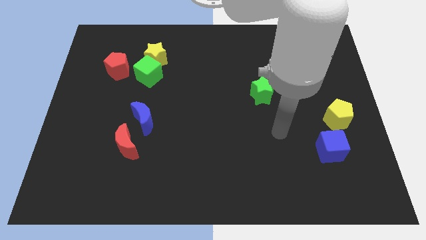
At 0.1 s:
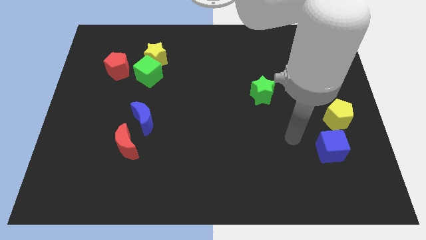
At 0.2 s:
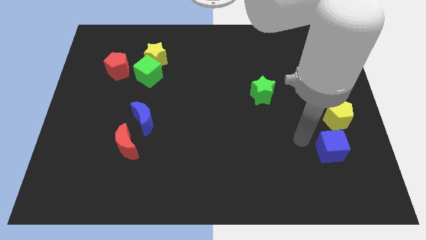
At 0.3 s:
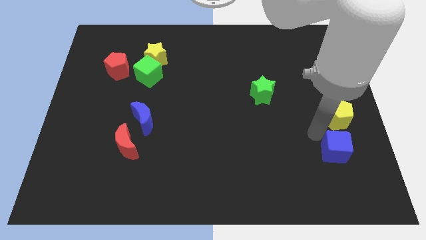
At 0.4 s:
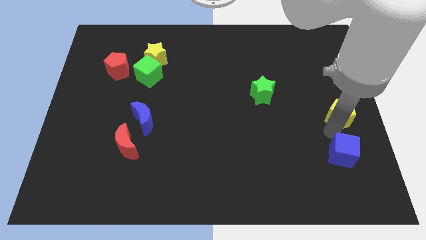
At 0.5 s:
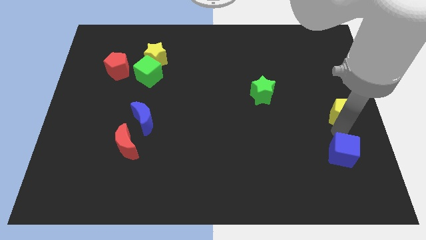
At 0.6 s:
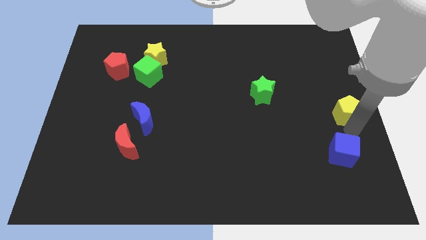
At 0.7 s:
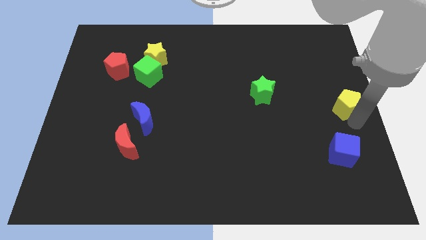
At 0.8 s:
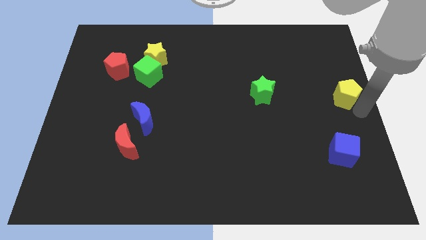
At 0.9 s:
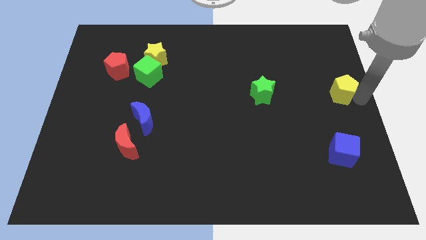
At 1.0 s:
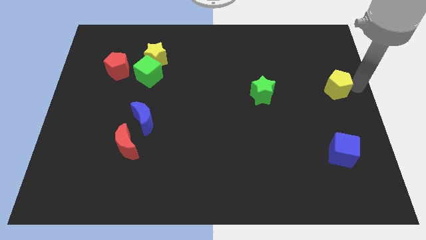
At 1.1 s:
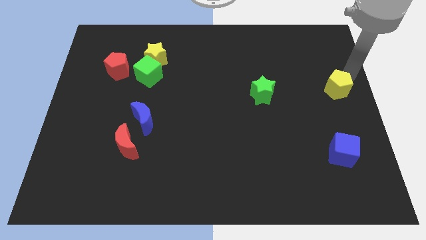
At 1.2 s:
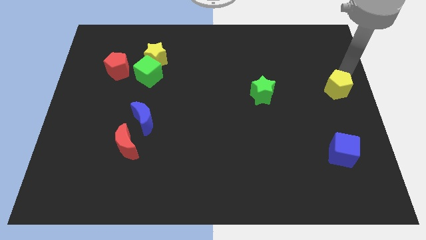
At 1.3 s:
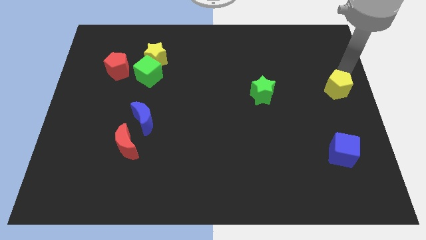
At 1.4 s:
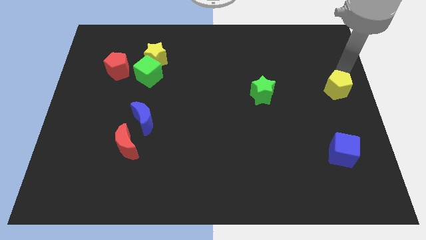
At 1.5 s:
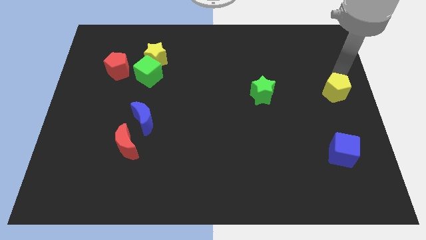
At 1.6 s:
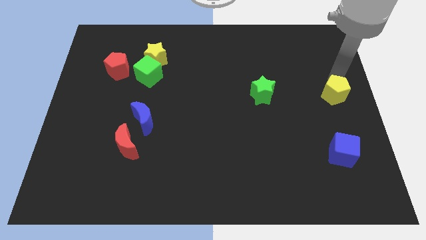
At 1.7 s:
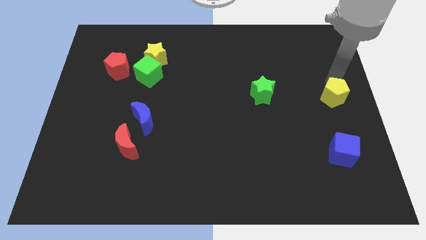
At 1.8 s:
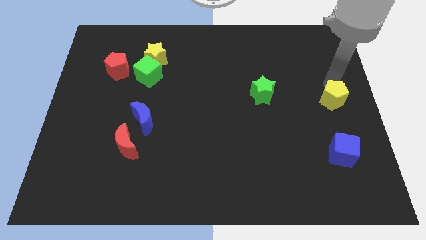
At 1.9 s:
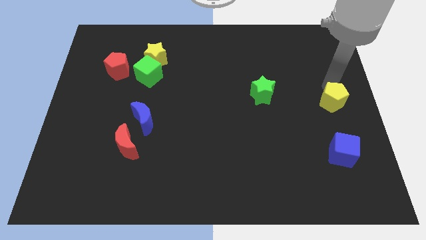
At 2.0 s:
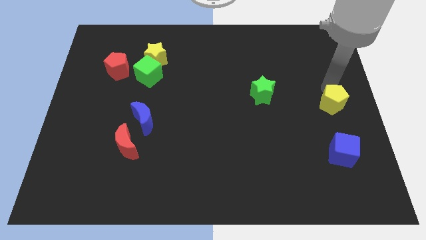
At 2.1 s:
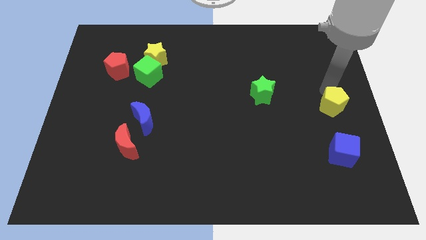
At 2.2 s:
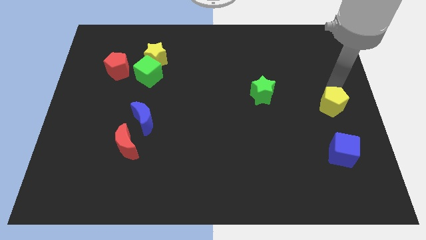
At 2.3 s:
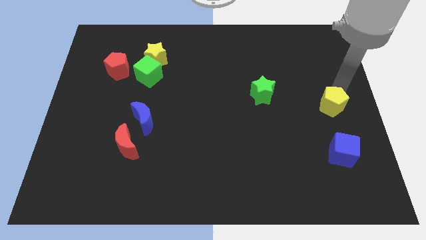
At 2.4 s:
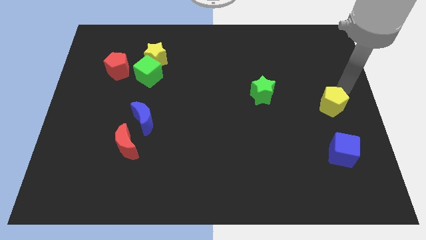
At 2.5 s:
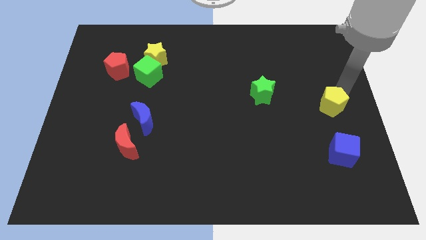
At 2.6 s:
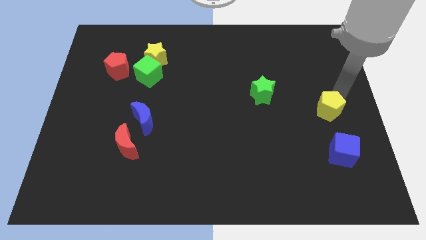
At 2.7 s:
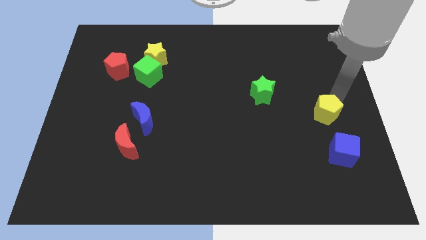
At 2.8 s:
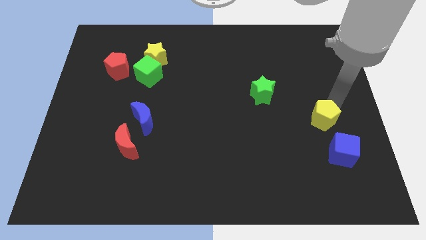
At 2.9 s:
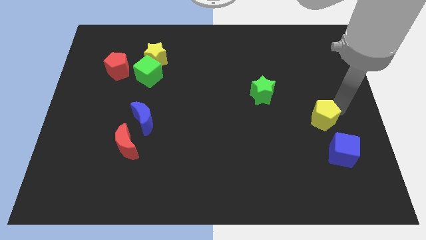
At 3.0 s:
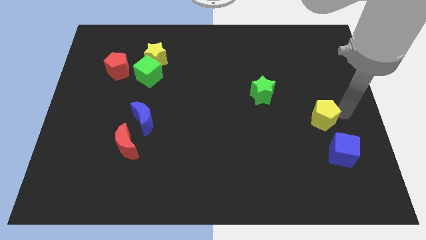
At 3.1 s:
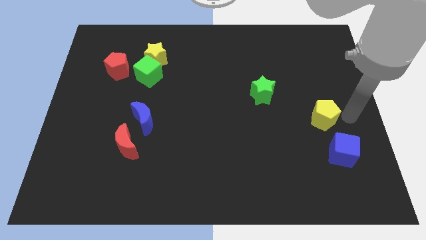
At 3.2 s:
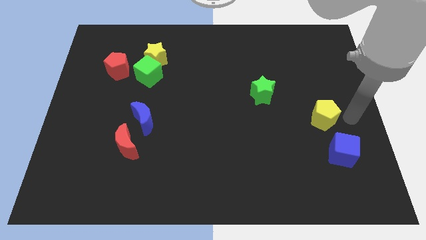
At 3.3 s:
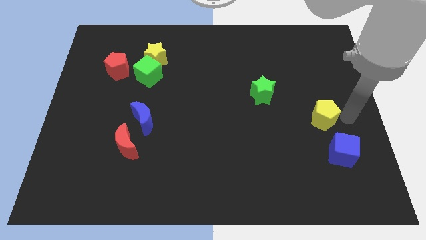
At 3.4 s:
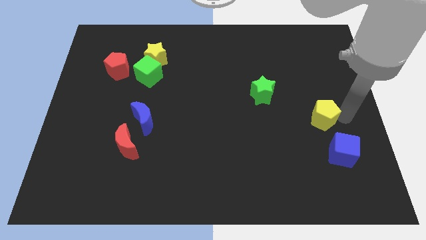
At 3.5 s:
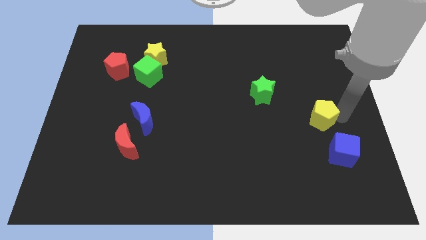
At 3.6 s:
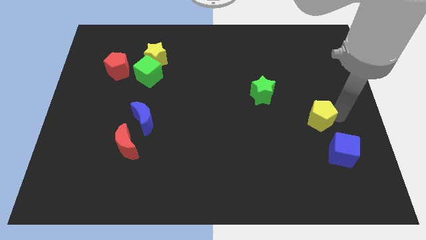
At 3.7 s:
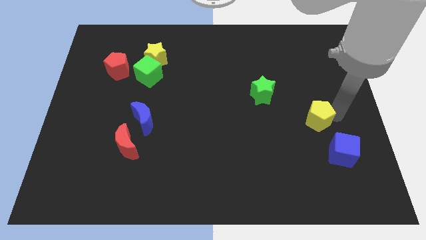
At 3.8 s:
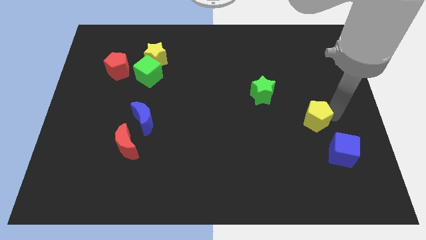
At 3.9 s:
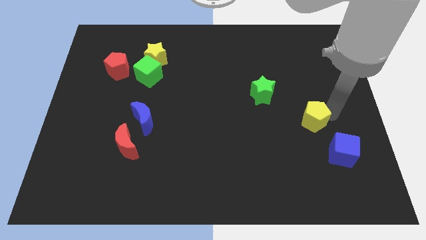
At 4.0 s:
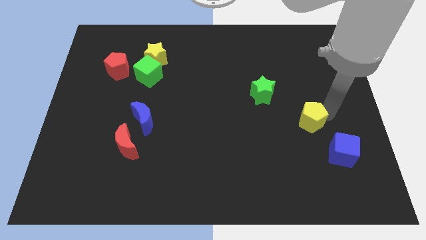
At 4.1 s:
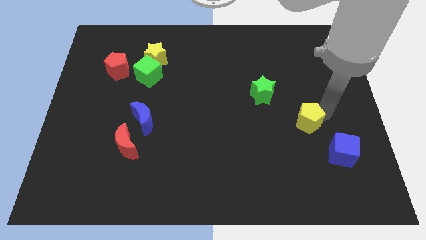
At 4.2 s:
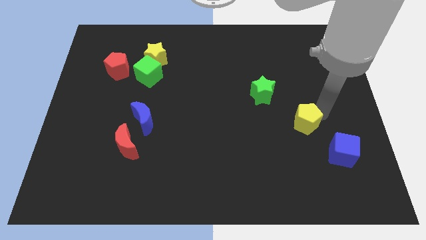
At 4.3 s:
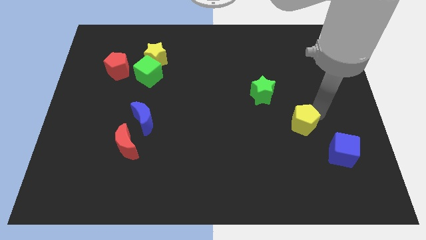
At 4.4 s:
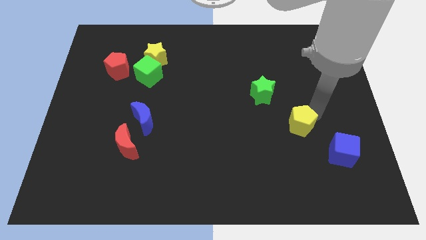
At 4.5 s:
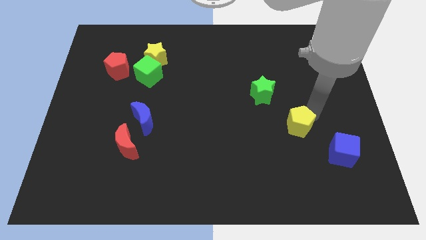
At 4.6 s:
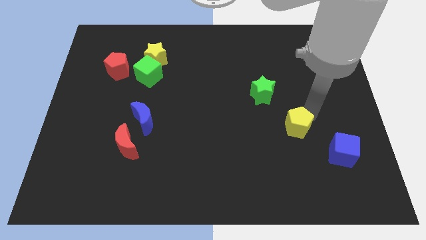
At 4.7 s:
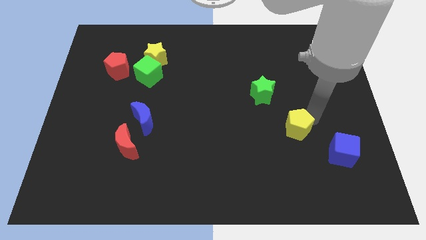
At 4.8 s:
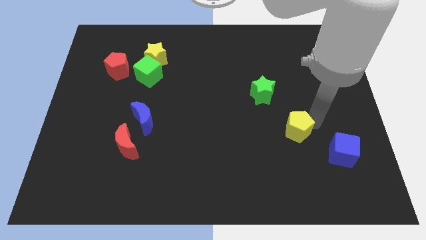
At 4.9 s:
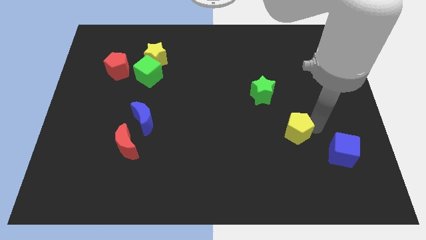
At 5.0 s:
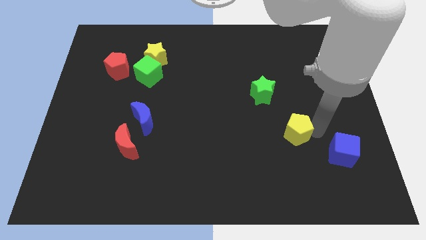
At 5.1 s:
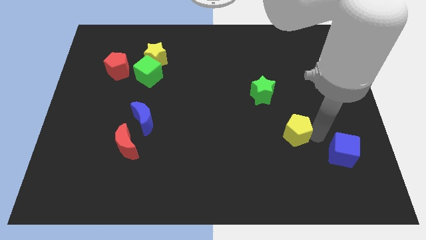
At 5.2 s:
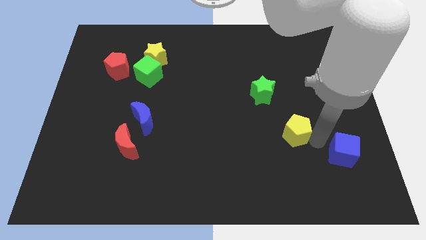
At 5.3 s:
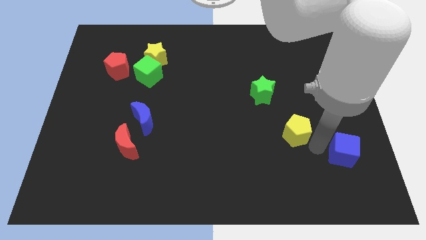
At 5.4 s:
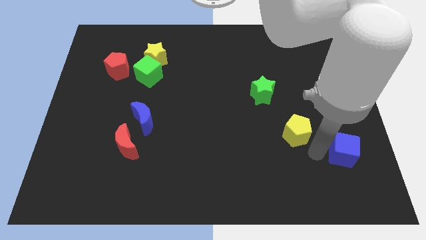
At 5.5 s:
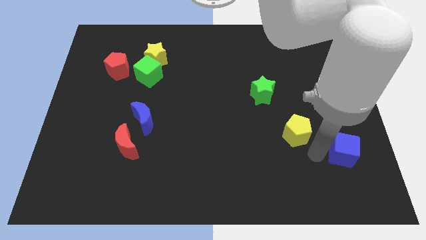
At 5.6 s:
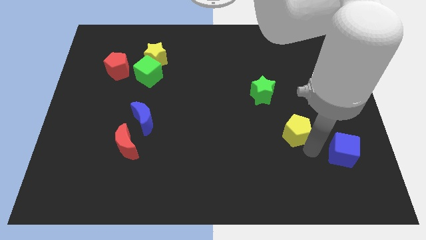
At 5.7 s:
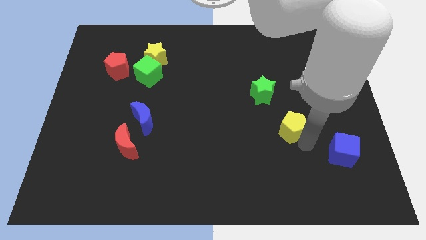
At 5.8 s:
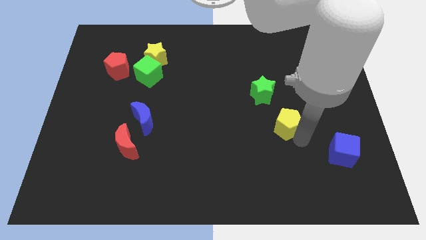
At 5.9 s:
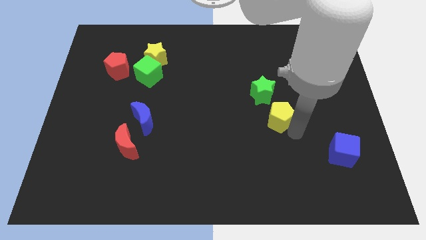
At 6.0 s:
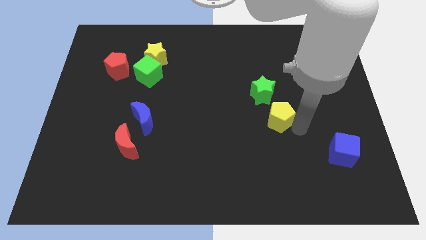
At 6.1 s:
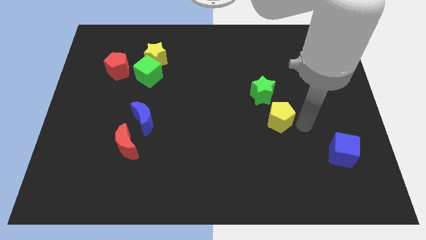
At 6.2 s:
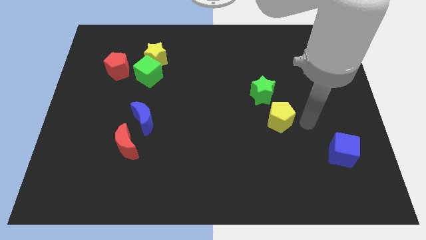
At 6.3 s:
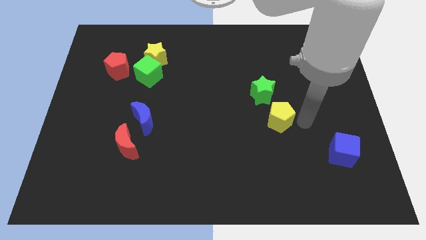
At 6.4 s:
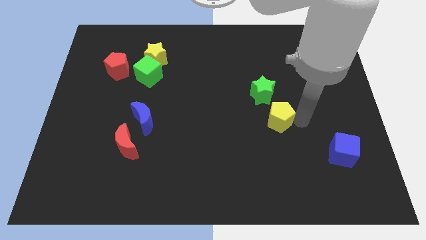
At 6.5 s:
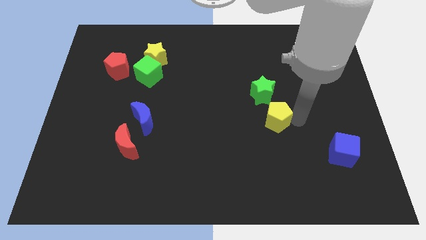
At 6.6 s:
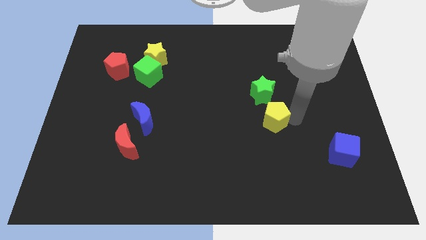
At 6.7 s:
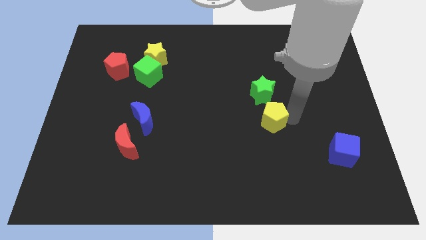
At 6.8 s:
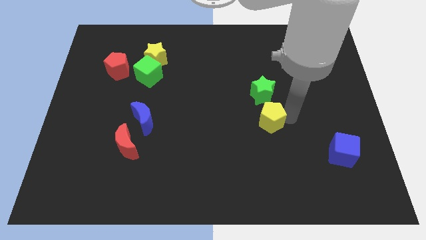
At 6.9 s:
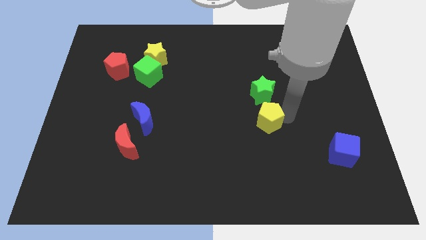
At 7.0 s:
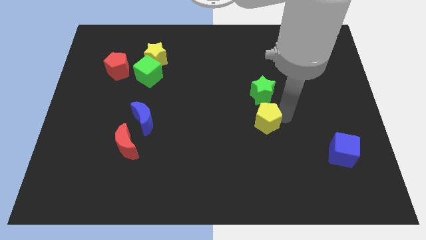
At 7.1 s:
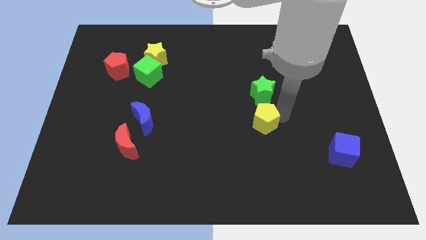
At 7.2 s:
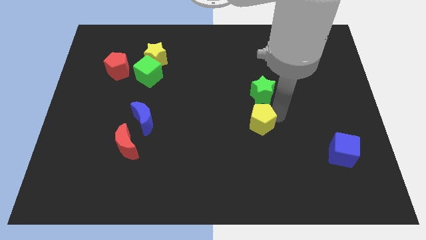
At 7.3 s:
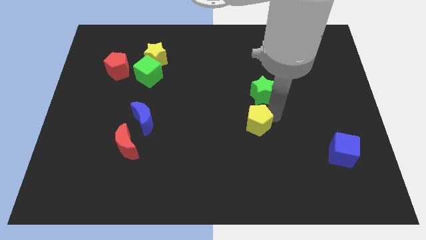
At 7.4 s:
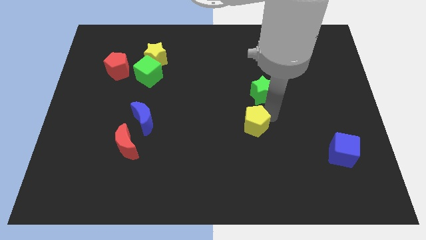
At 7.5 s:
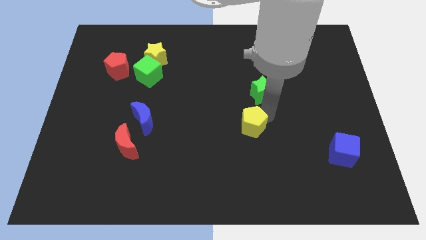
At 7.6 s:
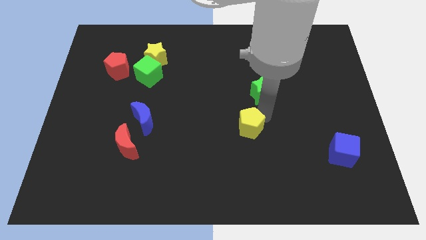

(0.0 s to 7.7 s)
push the yellow pentagon left

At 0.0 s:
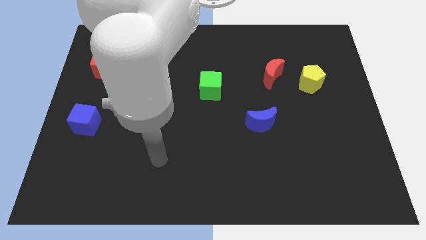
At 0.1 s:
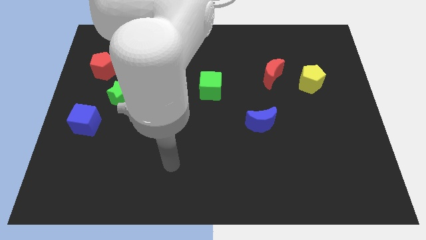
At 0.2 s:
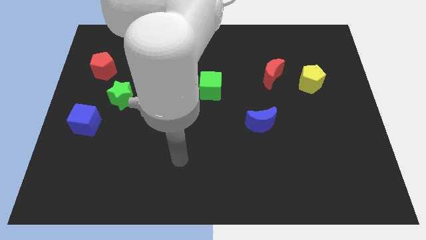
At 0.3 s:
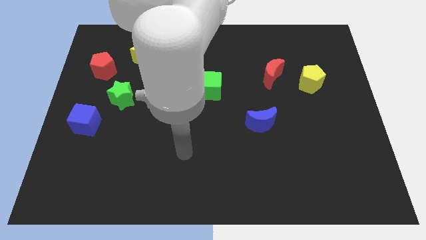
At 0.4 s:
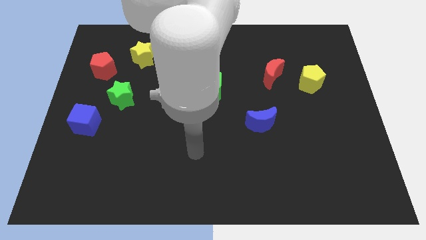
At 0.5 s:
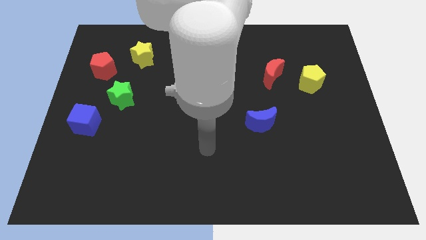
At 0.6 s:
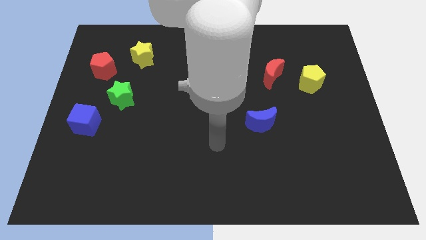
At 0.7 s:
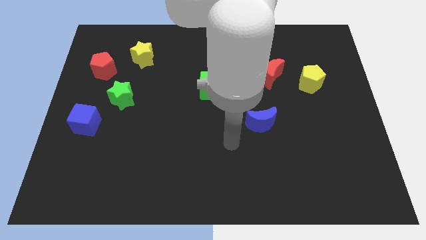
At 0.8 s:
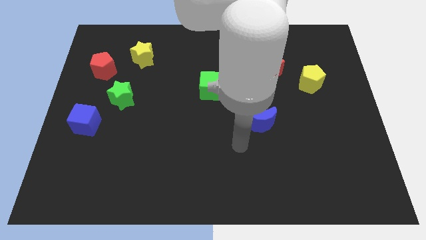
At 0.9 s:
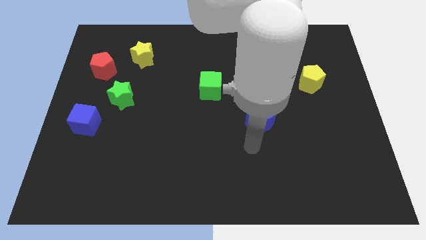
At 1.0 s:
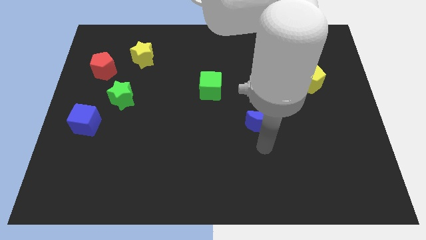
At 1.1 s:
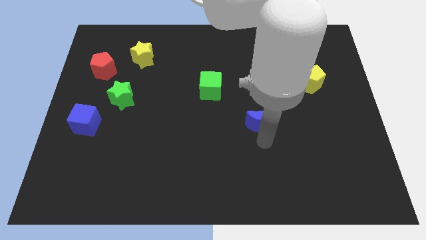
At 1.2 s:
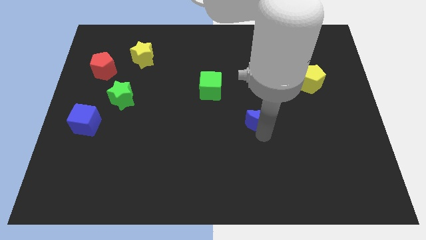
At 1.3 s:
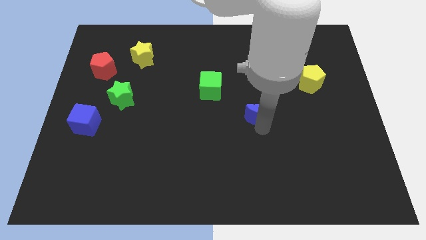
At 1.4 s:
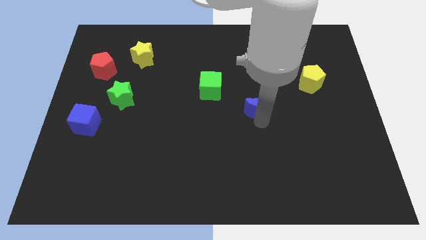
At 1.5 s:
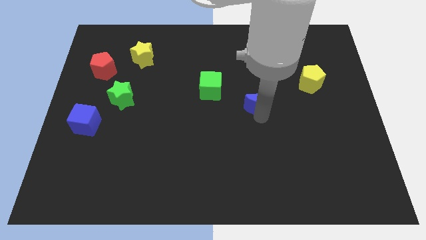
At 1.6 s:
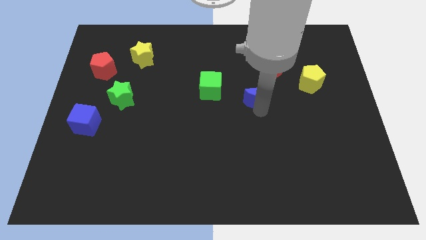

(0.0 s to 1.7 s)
slightly move the blue moon upwards
